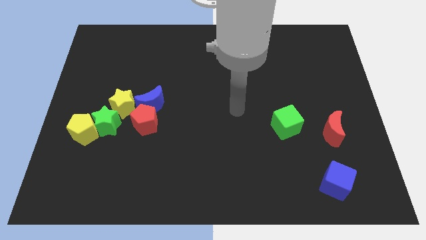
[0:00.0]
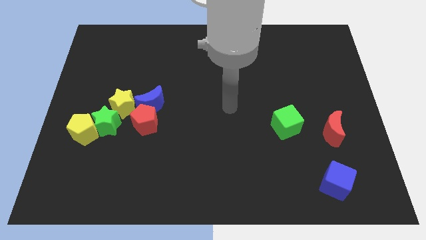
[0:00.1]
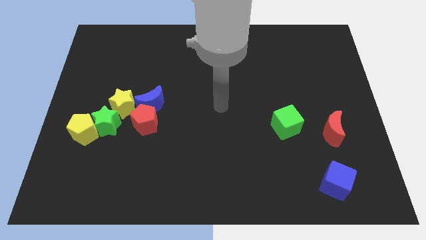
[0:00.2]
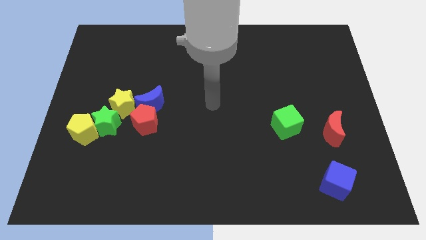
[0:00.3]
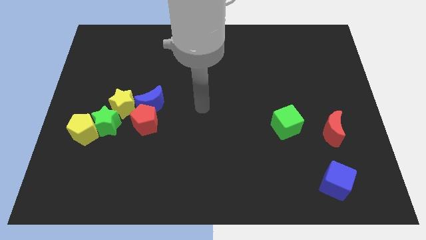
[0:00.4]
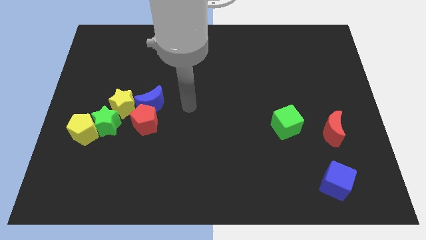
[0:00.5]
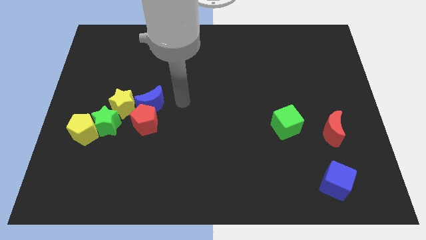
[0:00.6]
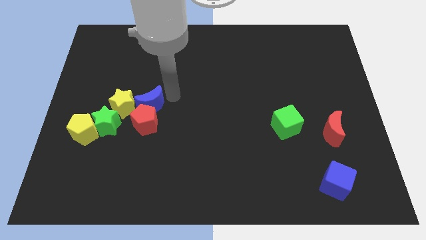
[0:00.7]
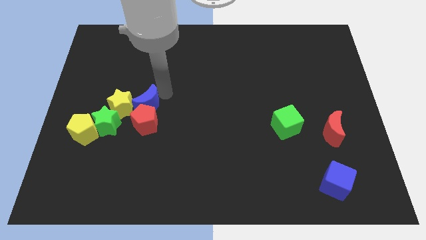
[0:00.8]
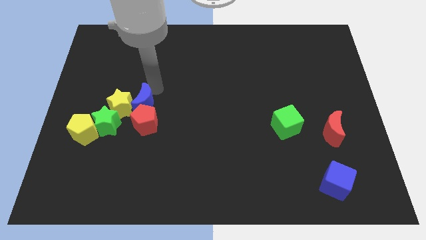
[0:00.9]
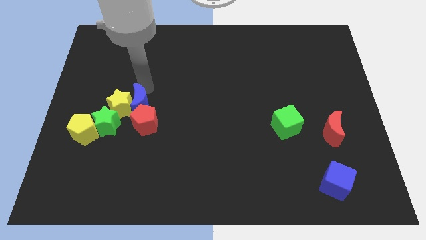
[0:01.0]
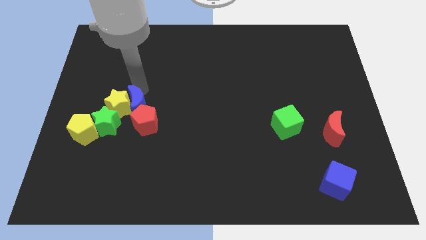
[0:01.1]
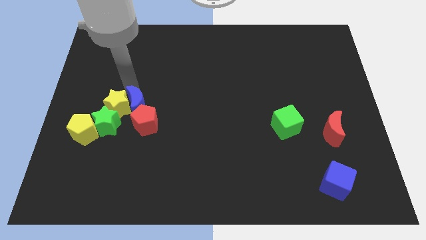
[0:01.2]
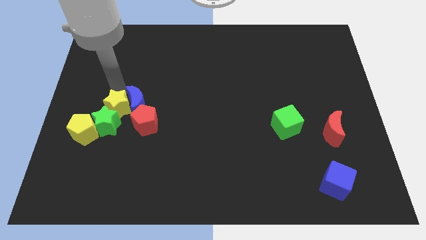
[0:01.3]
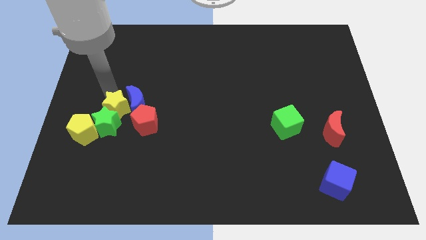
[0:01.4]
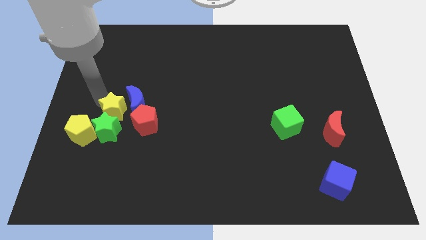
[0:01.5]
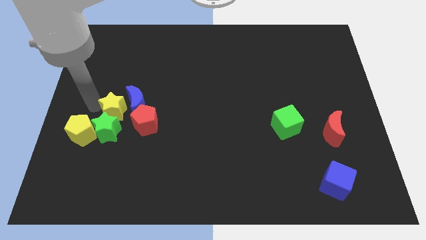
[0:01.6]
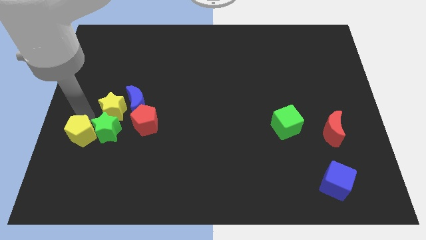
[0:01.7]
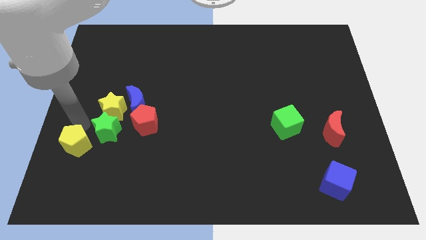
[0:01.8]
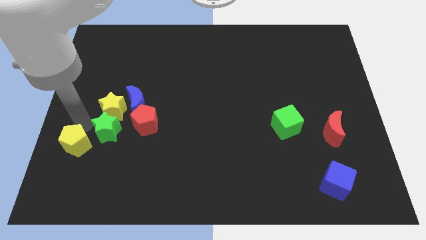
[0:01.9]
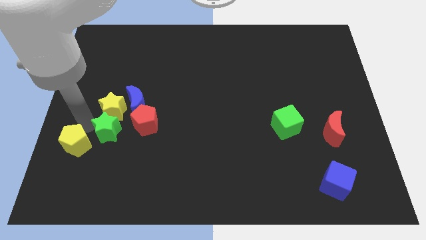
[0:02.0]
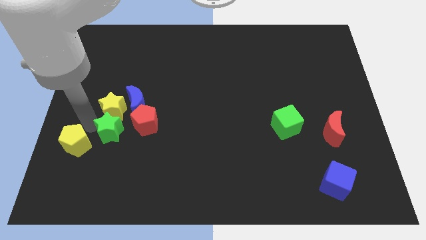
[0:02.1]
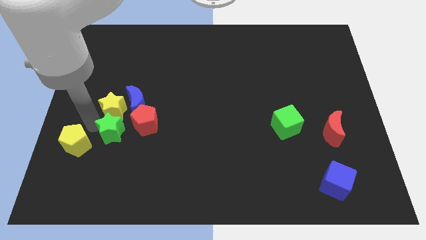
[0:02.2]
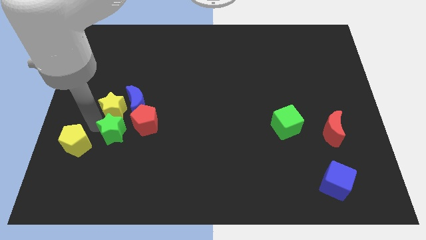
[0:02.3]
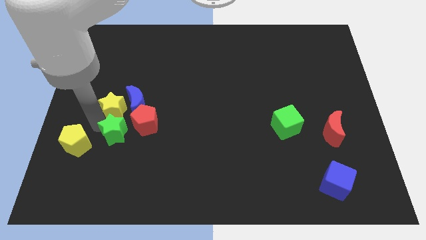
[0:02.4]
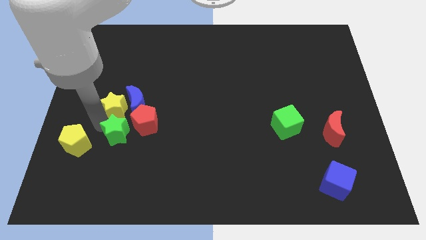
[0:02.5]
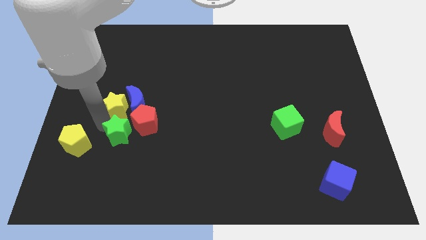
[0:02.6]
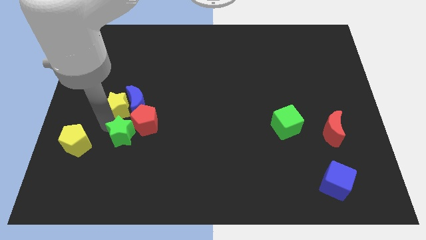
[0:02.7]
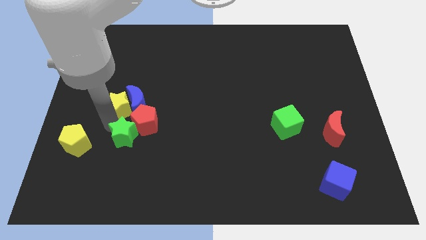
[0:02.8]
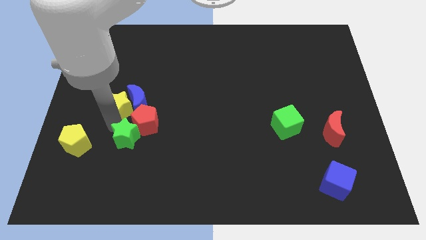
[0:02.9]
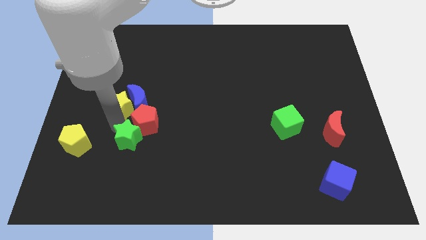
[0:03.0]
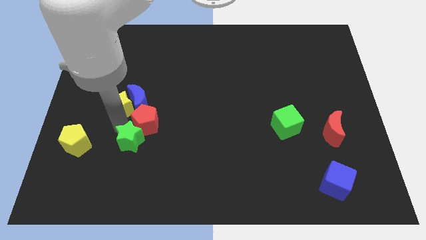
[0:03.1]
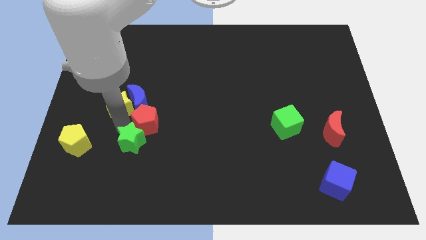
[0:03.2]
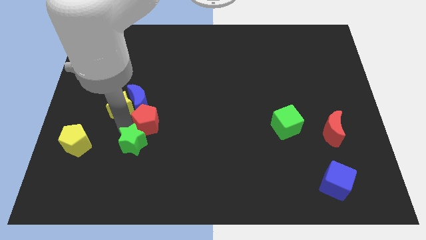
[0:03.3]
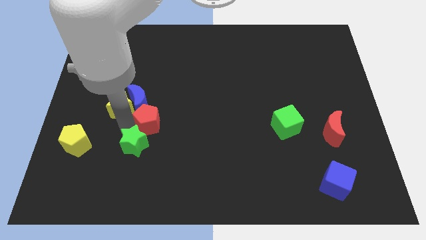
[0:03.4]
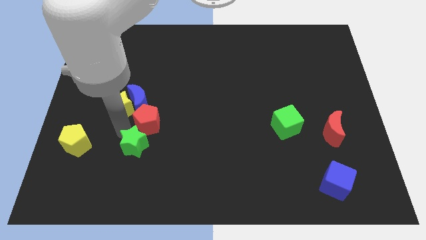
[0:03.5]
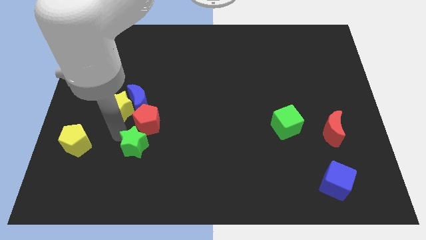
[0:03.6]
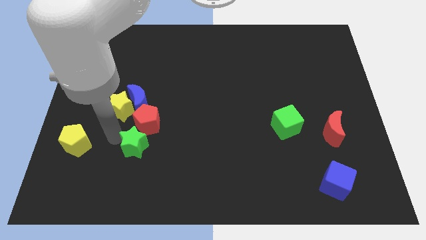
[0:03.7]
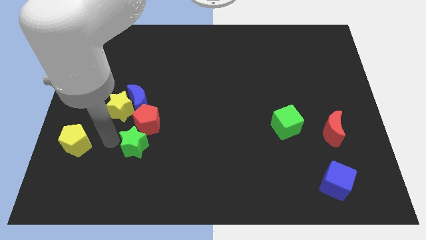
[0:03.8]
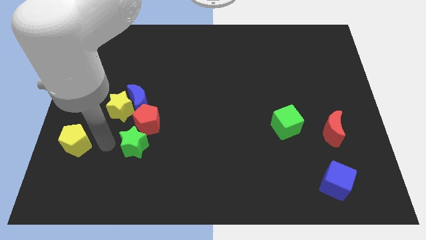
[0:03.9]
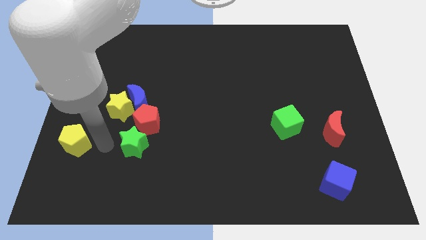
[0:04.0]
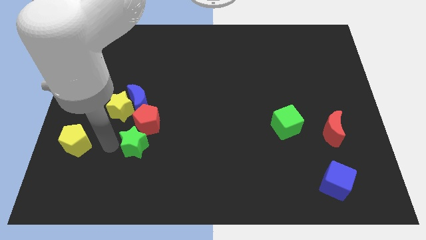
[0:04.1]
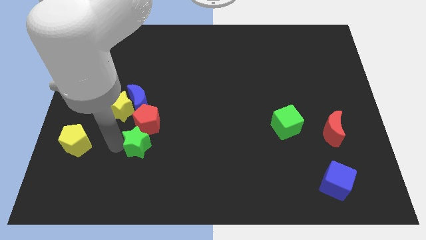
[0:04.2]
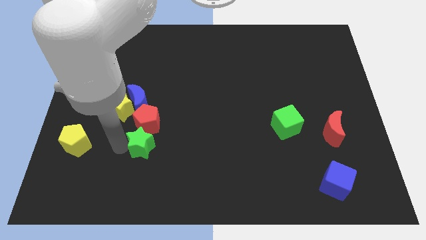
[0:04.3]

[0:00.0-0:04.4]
move the green star a bit right

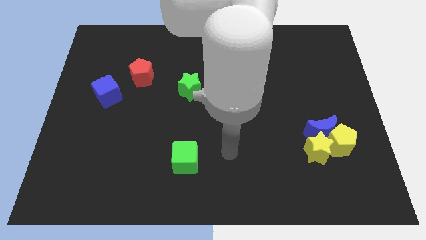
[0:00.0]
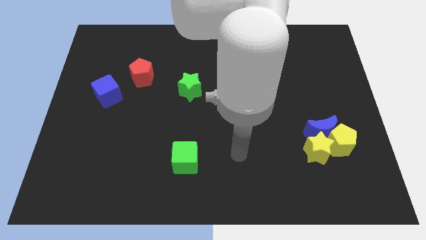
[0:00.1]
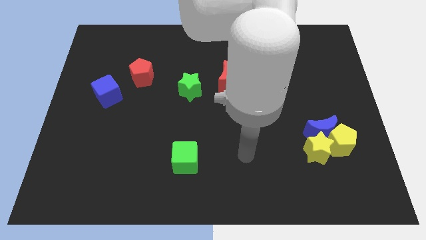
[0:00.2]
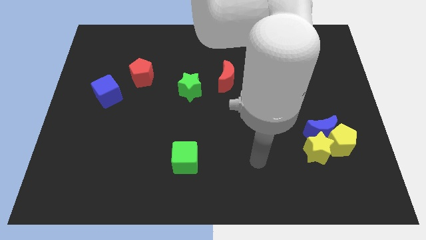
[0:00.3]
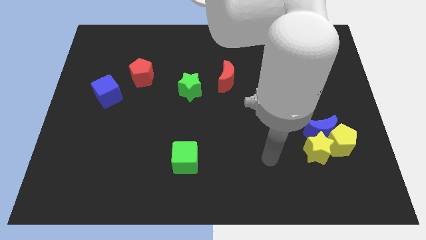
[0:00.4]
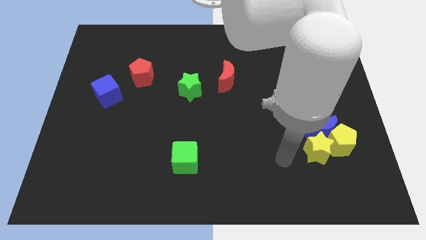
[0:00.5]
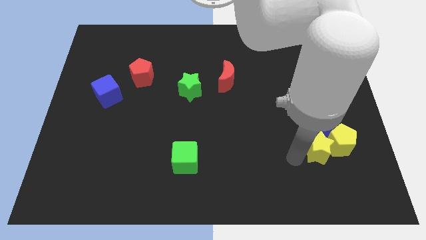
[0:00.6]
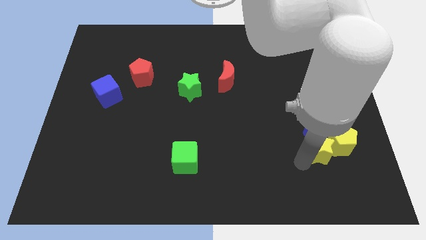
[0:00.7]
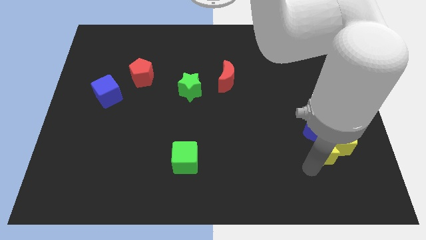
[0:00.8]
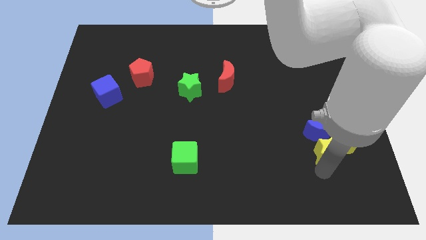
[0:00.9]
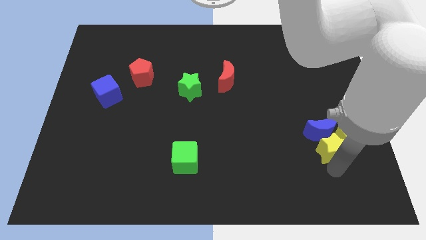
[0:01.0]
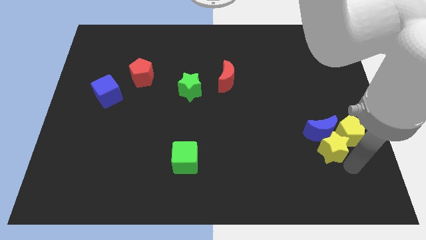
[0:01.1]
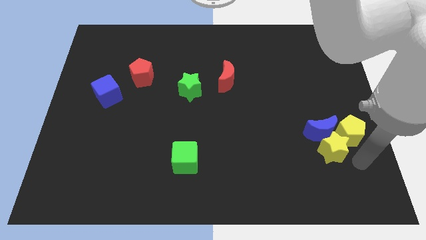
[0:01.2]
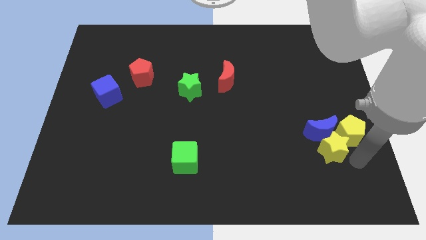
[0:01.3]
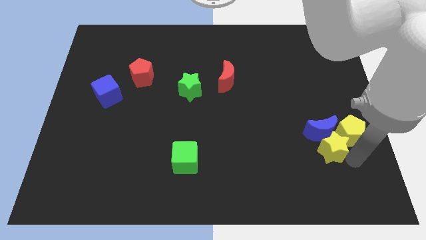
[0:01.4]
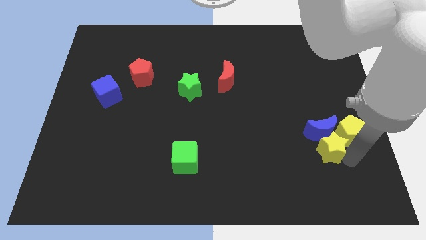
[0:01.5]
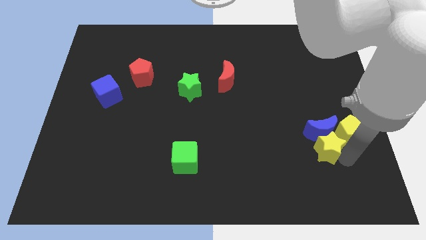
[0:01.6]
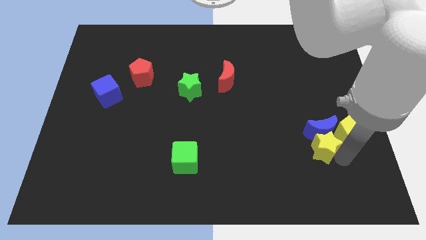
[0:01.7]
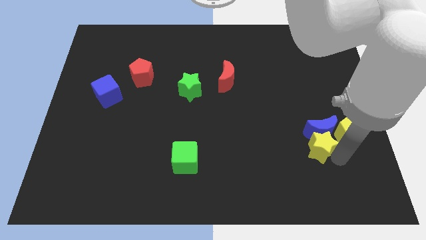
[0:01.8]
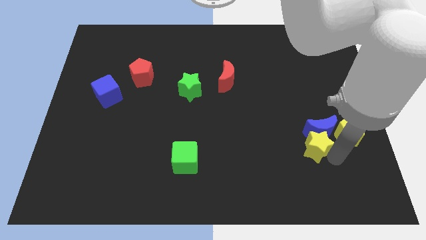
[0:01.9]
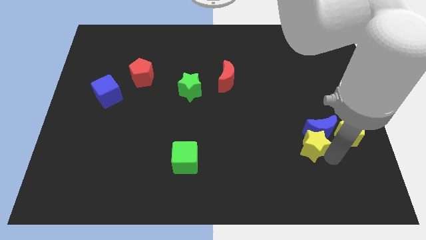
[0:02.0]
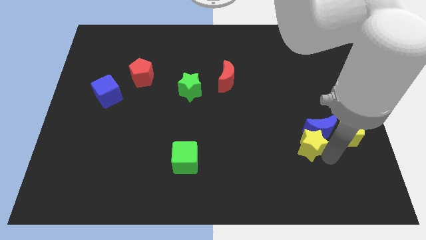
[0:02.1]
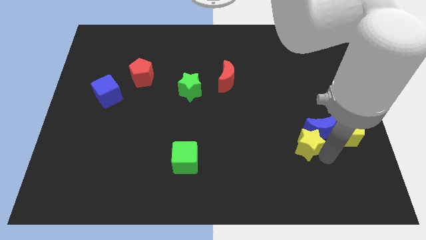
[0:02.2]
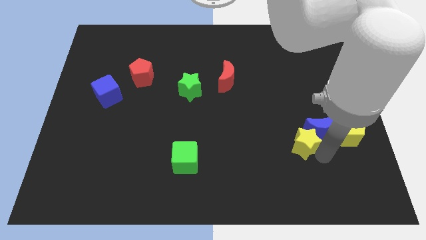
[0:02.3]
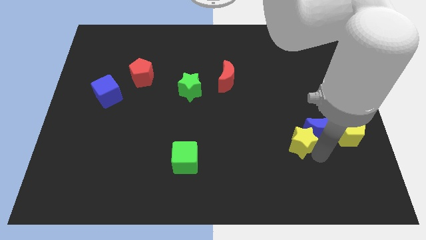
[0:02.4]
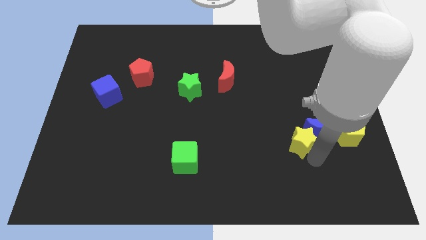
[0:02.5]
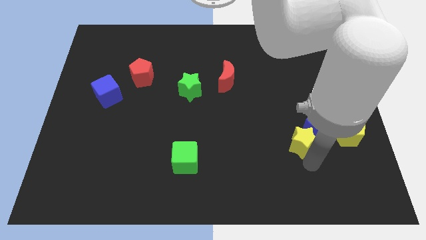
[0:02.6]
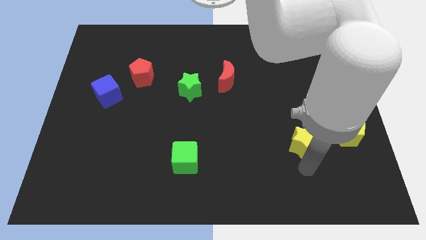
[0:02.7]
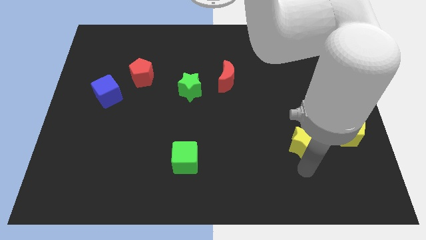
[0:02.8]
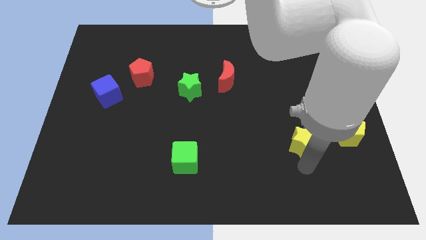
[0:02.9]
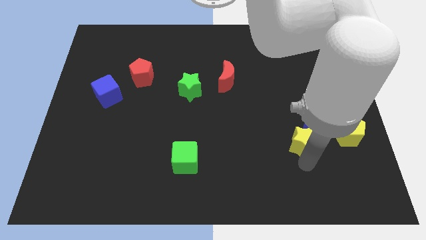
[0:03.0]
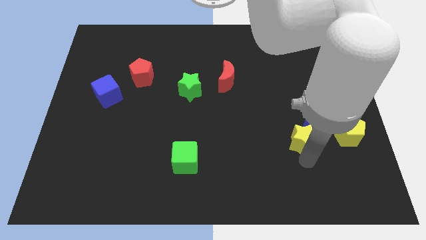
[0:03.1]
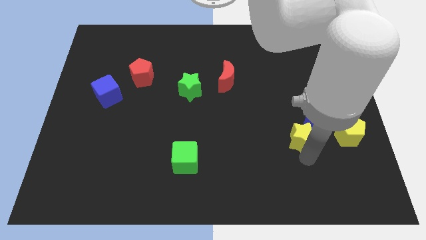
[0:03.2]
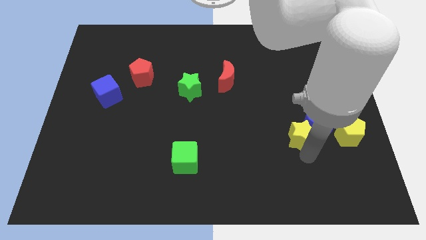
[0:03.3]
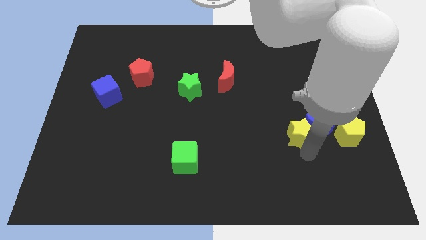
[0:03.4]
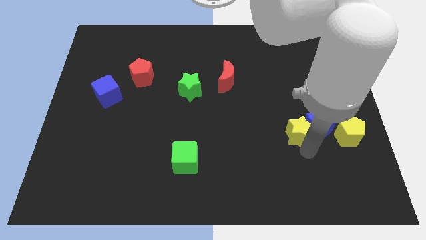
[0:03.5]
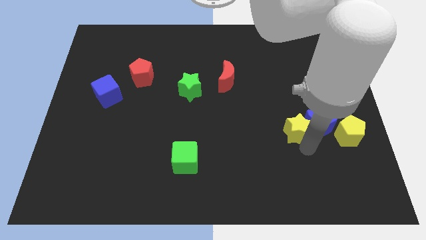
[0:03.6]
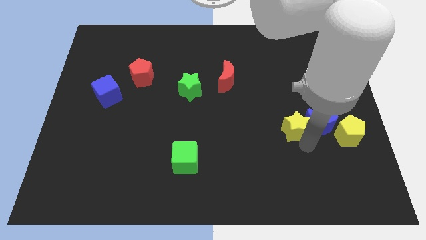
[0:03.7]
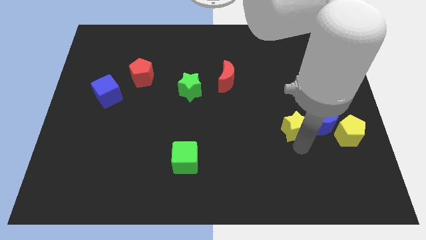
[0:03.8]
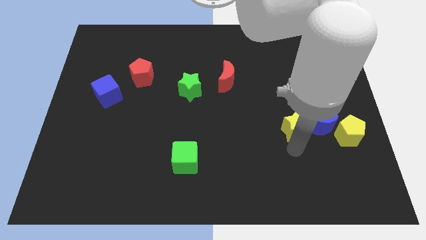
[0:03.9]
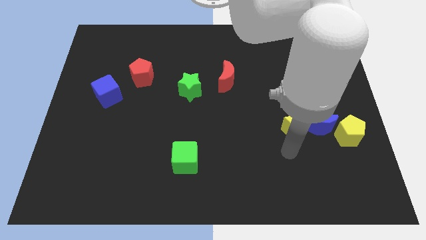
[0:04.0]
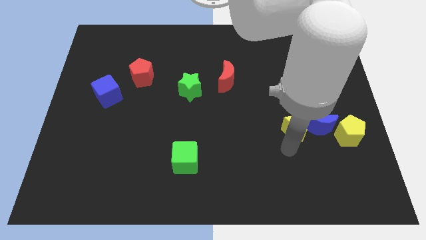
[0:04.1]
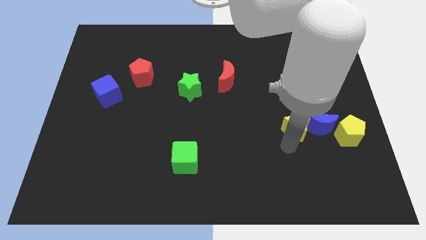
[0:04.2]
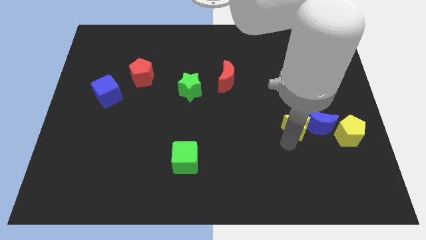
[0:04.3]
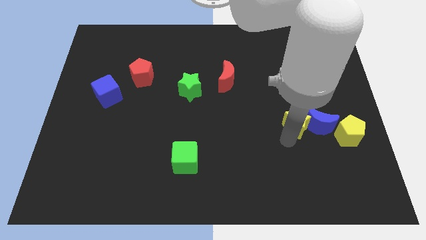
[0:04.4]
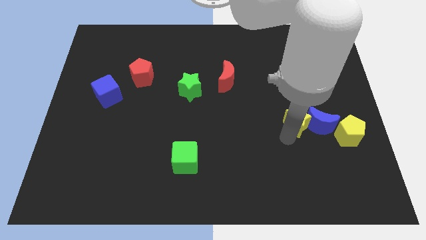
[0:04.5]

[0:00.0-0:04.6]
slightly move the yellow star upwards
